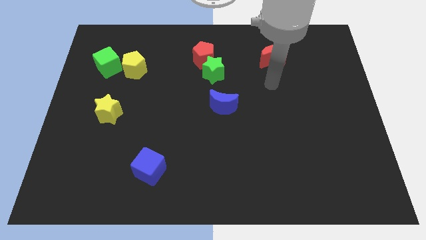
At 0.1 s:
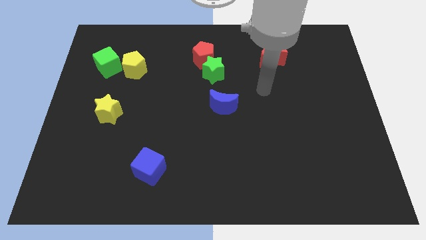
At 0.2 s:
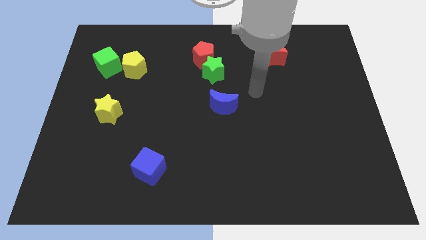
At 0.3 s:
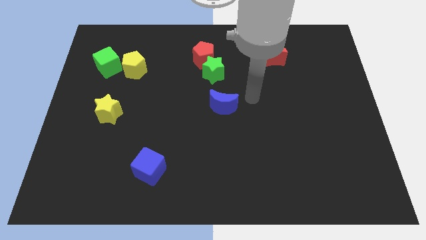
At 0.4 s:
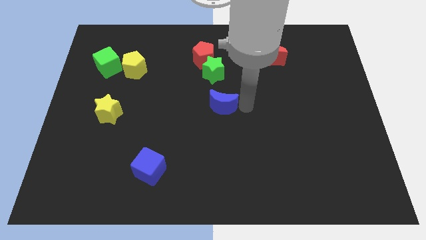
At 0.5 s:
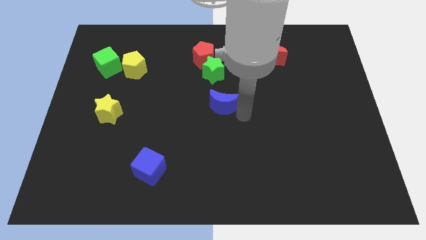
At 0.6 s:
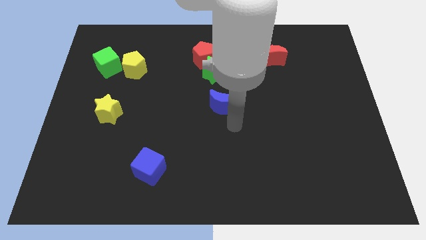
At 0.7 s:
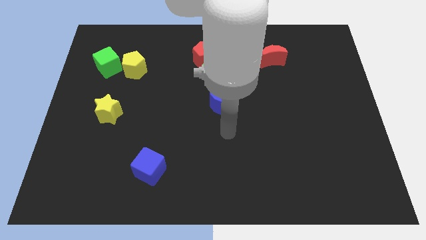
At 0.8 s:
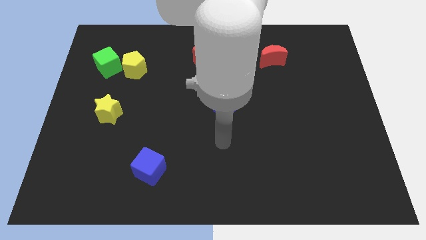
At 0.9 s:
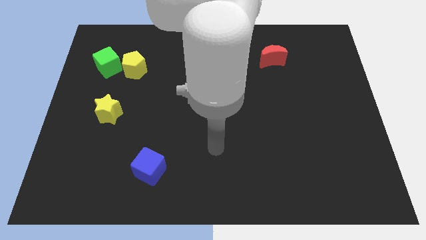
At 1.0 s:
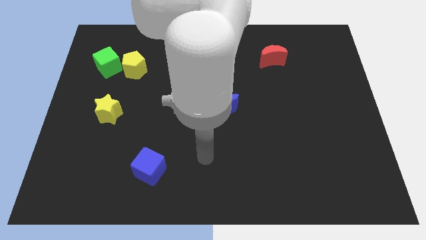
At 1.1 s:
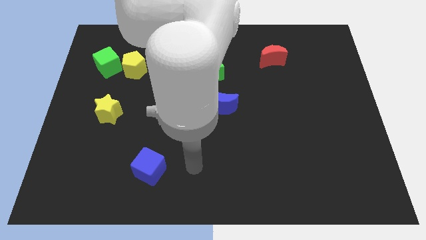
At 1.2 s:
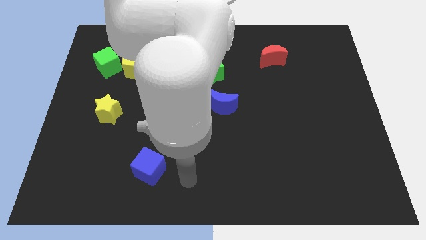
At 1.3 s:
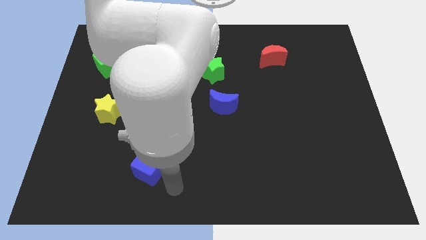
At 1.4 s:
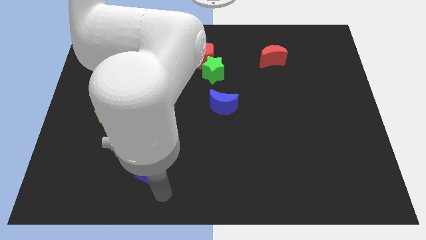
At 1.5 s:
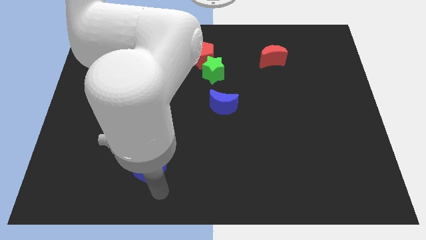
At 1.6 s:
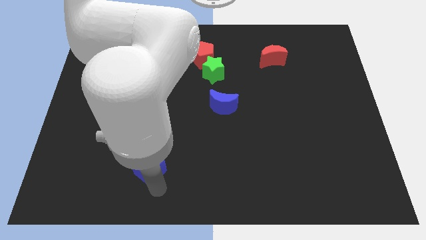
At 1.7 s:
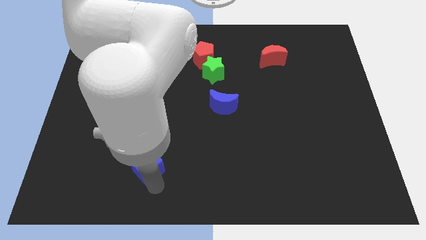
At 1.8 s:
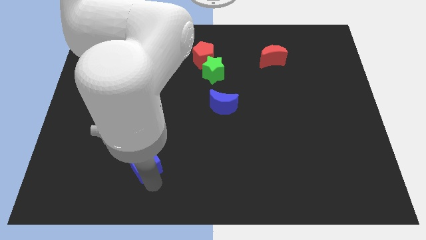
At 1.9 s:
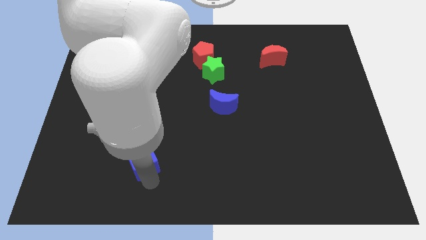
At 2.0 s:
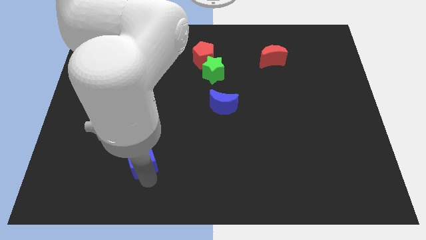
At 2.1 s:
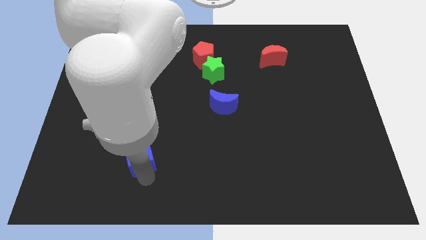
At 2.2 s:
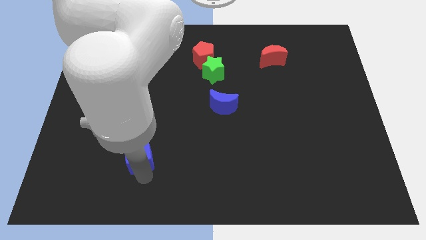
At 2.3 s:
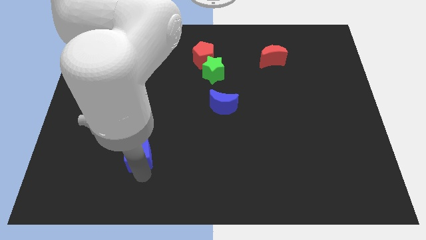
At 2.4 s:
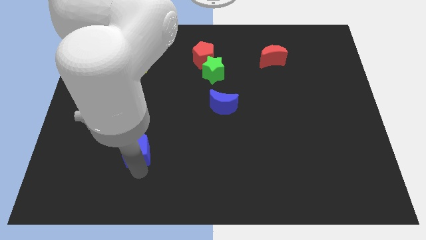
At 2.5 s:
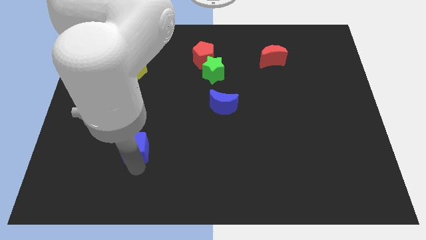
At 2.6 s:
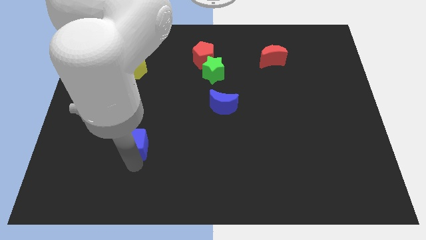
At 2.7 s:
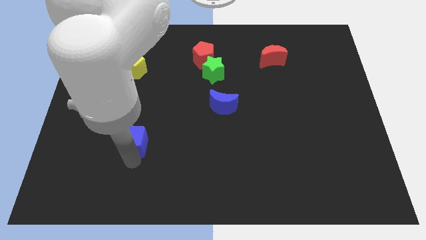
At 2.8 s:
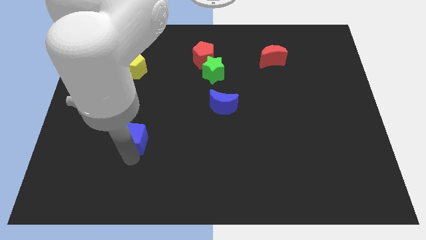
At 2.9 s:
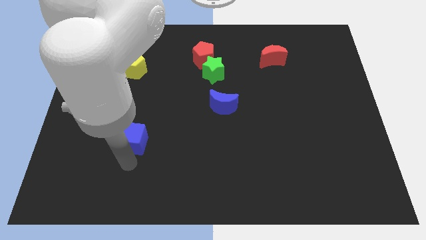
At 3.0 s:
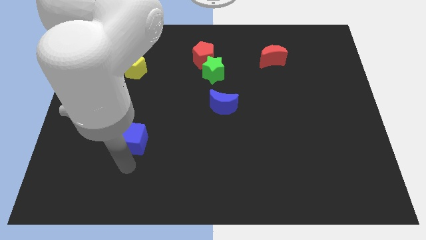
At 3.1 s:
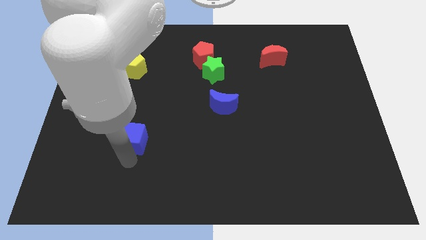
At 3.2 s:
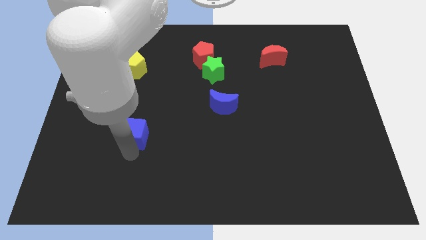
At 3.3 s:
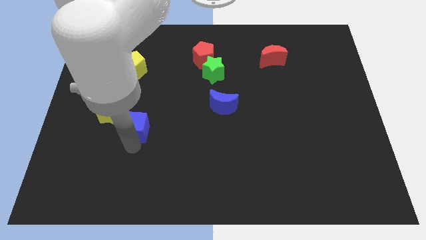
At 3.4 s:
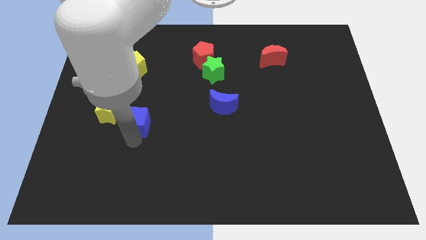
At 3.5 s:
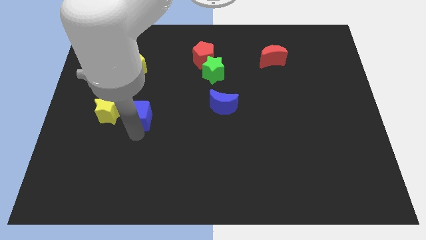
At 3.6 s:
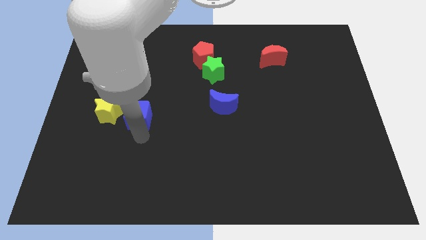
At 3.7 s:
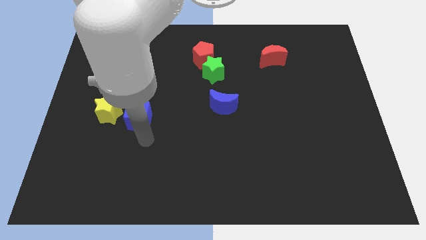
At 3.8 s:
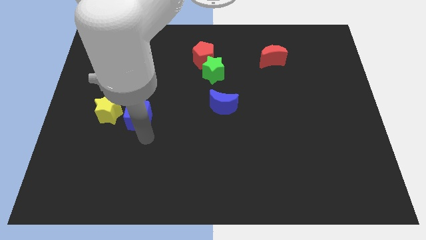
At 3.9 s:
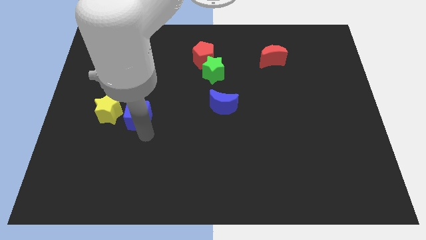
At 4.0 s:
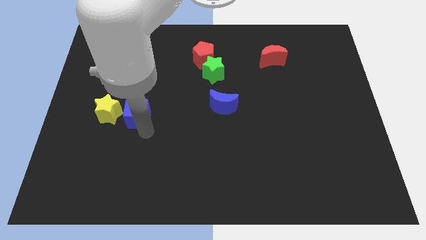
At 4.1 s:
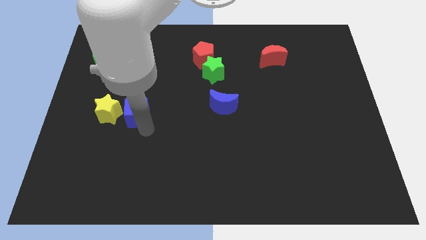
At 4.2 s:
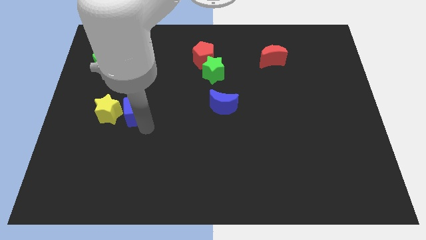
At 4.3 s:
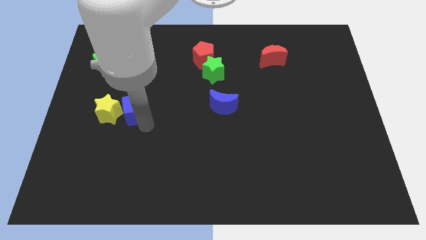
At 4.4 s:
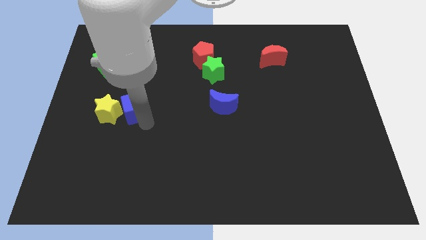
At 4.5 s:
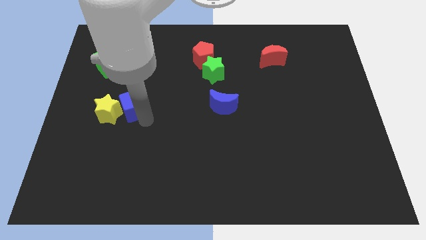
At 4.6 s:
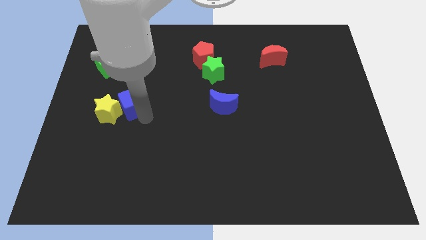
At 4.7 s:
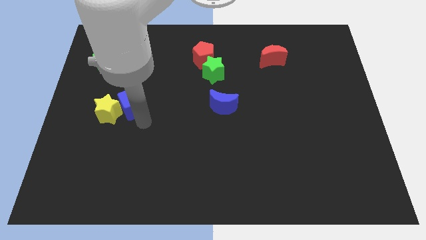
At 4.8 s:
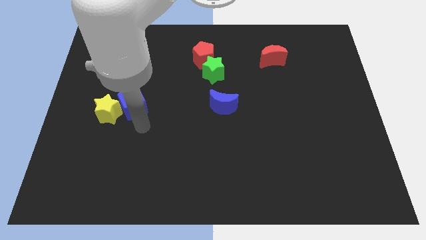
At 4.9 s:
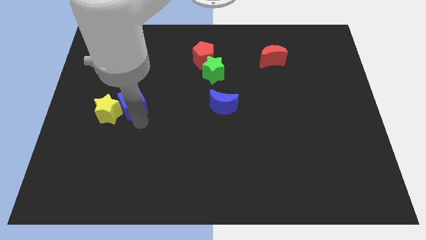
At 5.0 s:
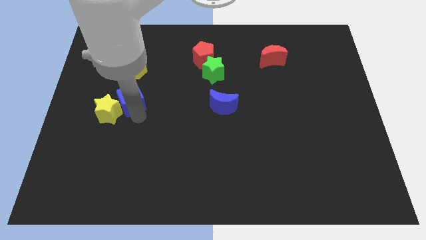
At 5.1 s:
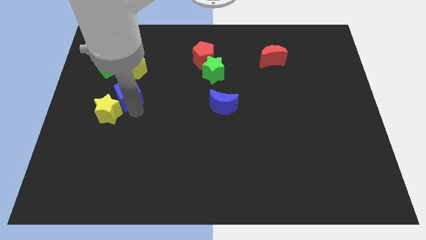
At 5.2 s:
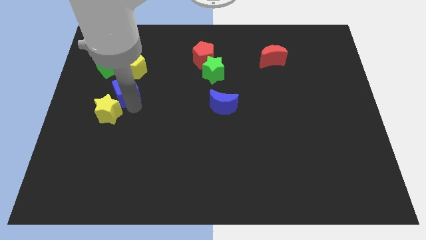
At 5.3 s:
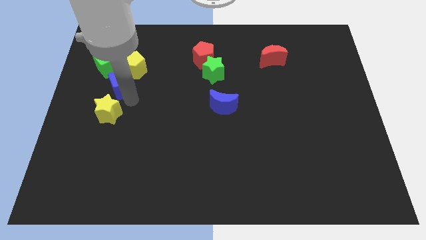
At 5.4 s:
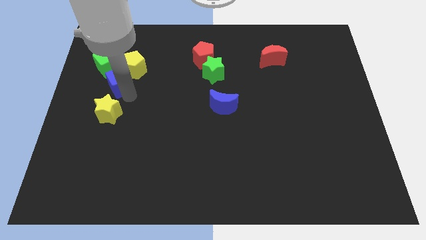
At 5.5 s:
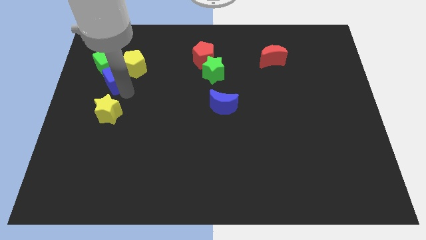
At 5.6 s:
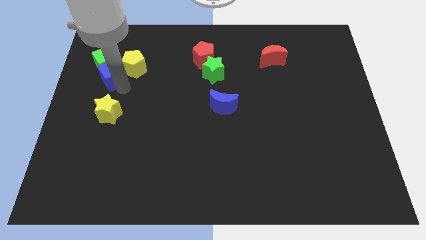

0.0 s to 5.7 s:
move the blue cube close to the green cube

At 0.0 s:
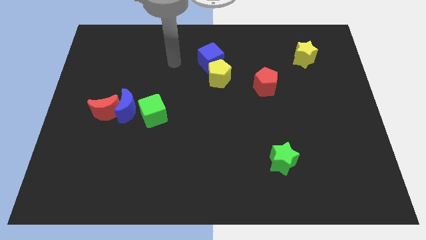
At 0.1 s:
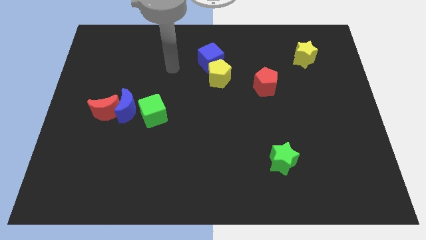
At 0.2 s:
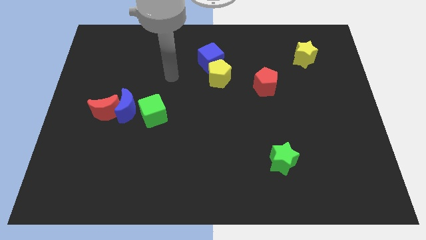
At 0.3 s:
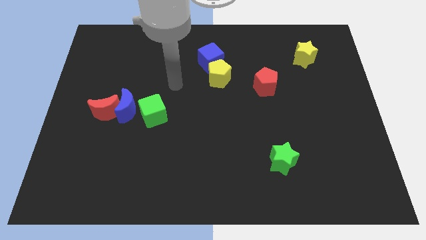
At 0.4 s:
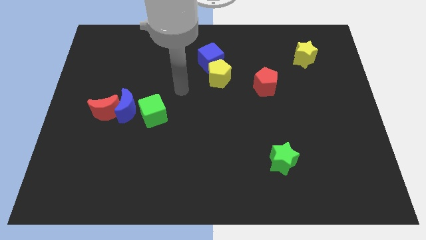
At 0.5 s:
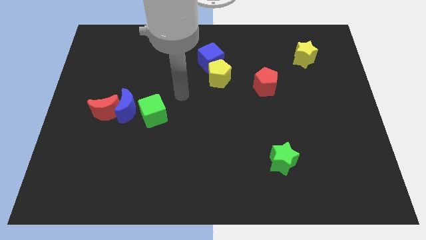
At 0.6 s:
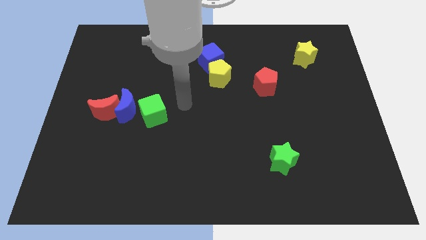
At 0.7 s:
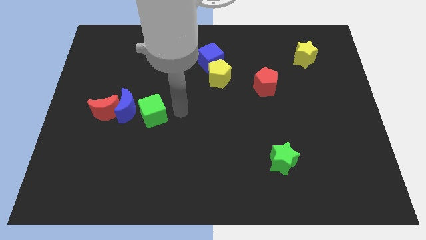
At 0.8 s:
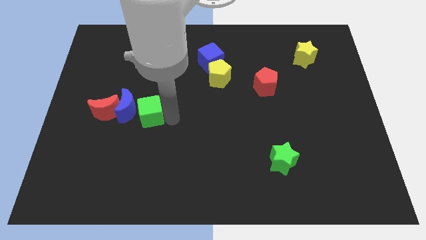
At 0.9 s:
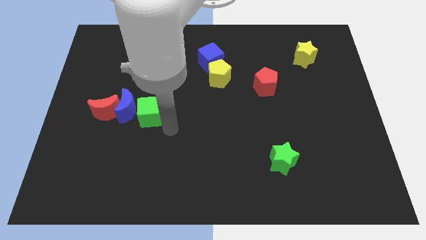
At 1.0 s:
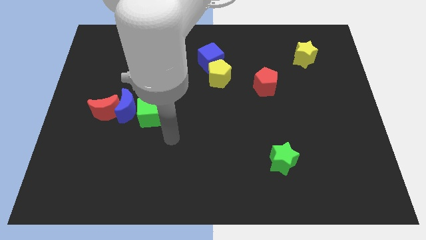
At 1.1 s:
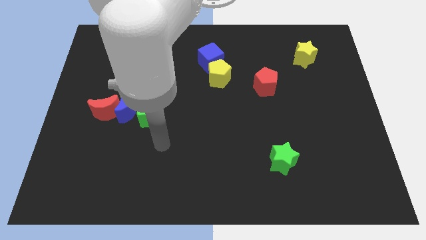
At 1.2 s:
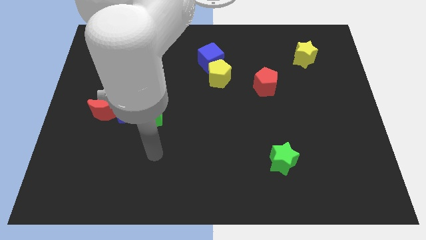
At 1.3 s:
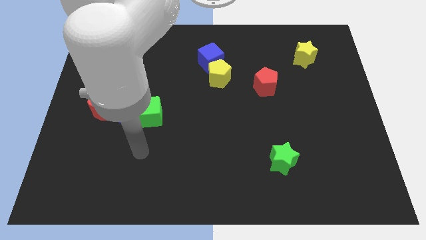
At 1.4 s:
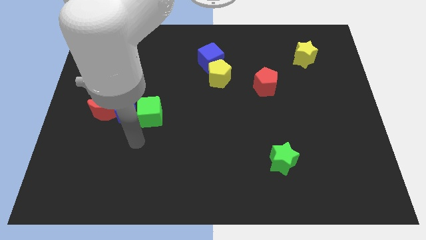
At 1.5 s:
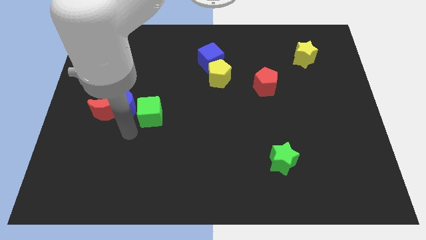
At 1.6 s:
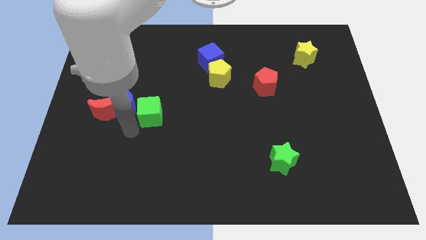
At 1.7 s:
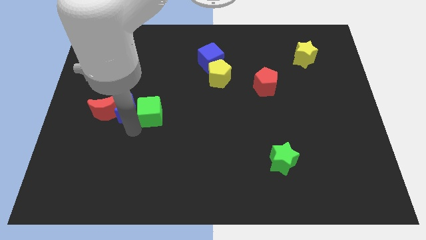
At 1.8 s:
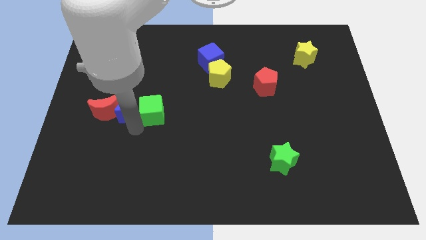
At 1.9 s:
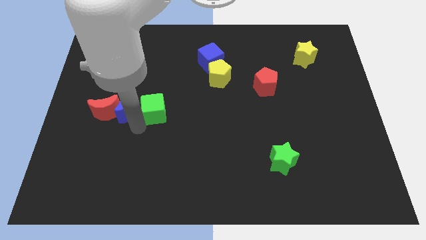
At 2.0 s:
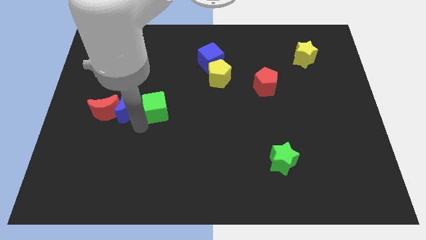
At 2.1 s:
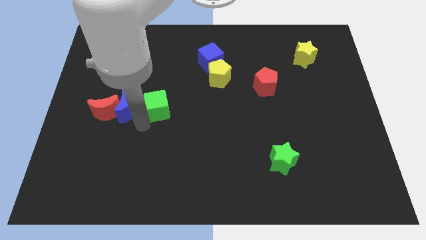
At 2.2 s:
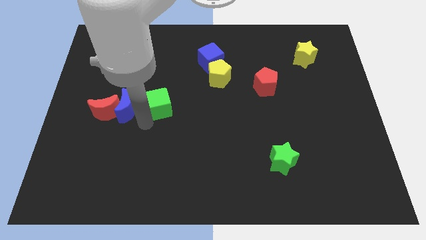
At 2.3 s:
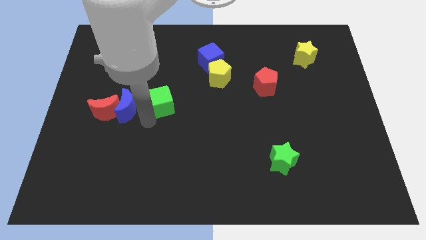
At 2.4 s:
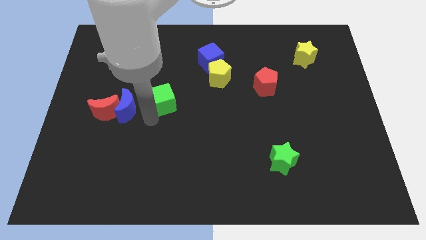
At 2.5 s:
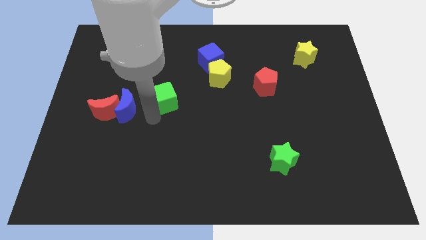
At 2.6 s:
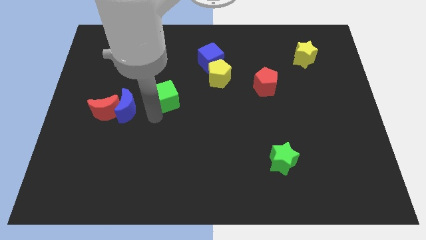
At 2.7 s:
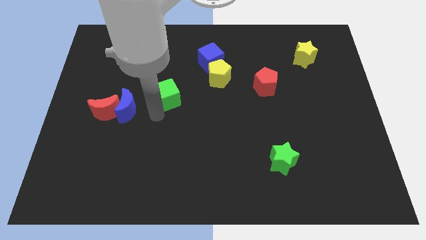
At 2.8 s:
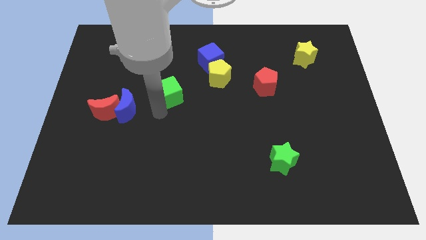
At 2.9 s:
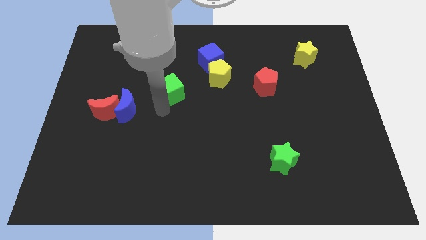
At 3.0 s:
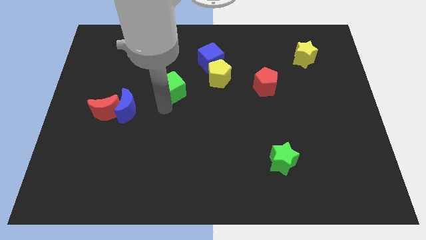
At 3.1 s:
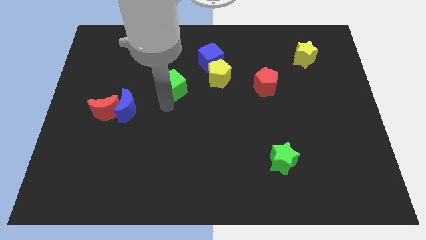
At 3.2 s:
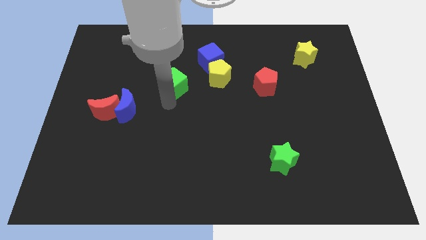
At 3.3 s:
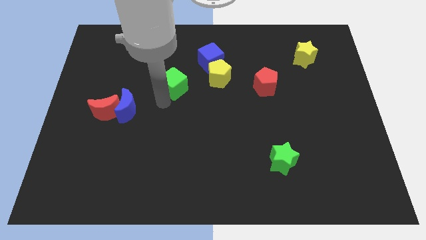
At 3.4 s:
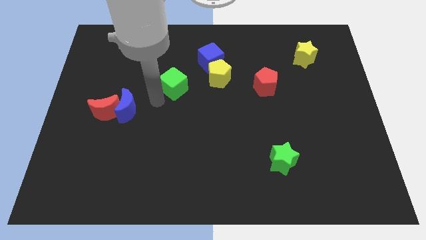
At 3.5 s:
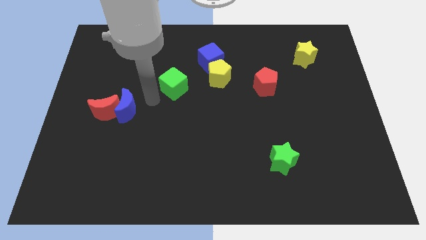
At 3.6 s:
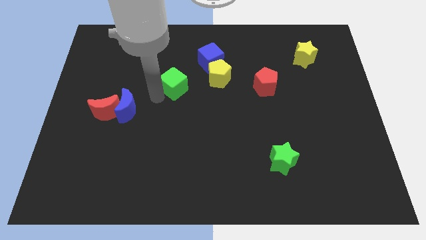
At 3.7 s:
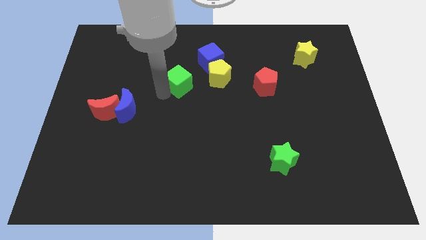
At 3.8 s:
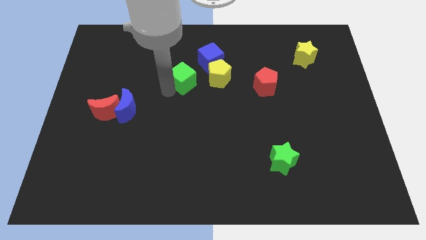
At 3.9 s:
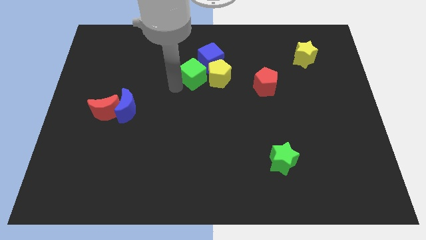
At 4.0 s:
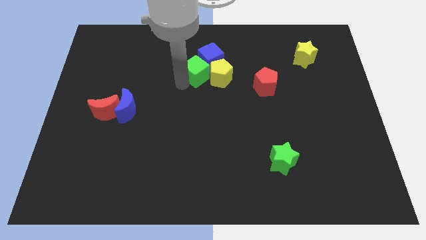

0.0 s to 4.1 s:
move the green cube to the blue cube
